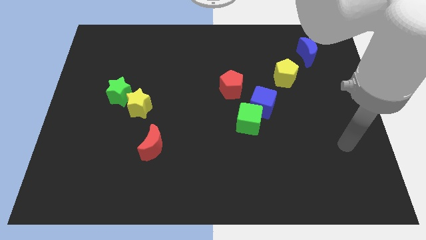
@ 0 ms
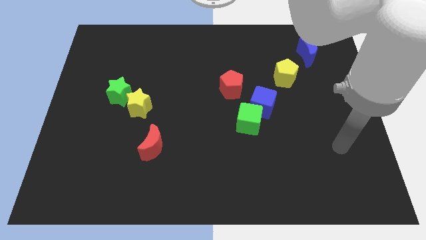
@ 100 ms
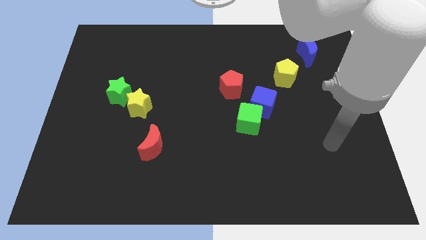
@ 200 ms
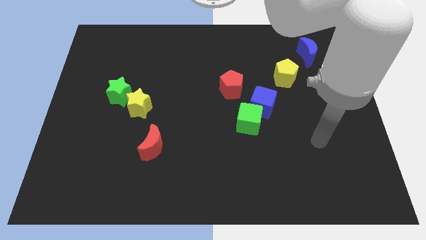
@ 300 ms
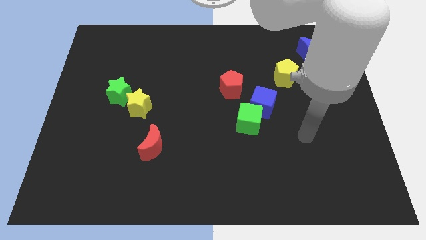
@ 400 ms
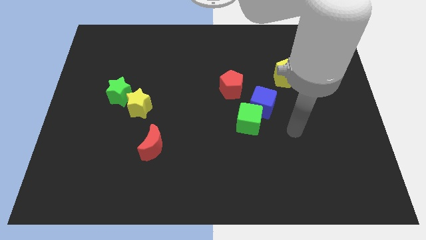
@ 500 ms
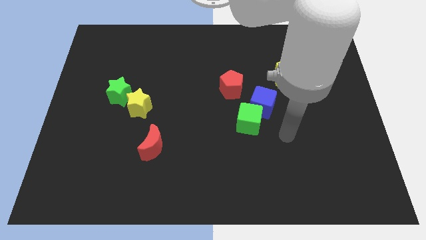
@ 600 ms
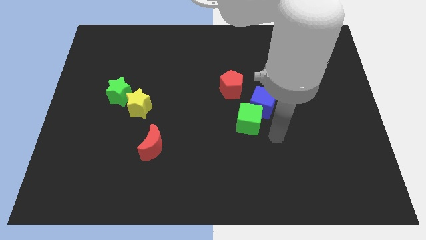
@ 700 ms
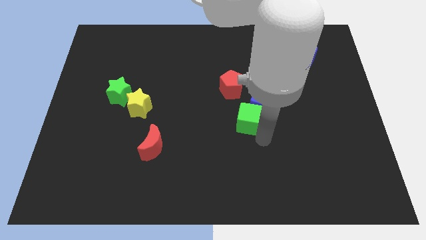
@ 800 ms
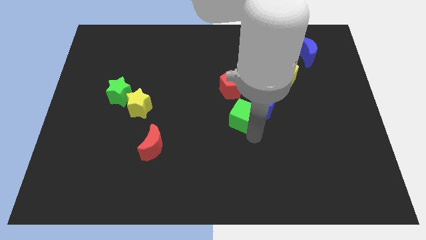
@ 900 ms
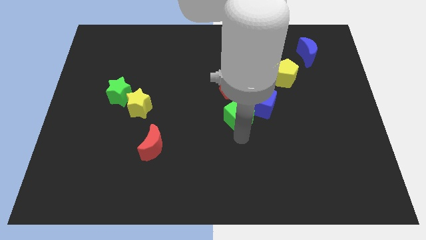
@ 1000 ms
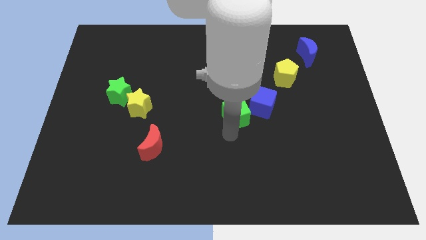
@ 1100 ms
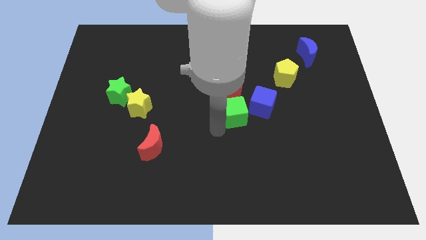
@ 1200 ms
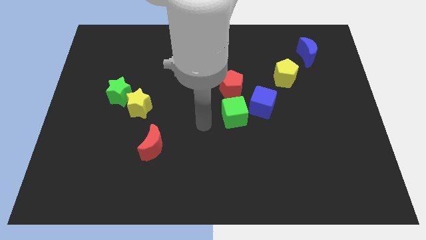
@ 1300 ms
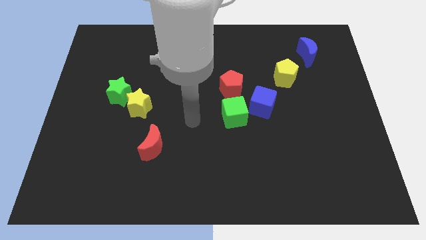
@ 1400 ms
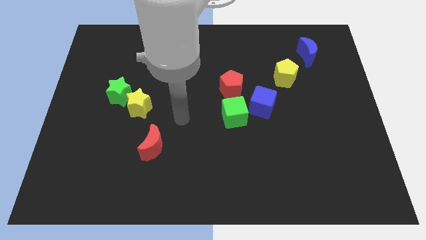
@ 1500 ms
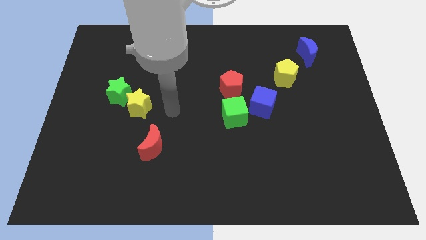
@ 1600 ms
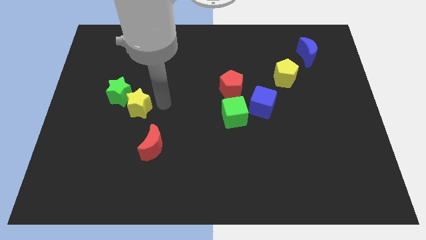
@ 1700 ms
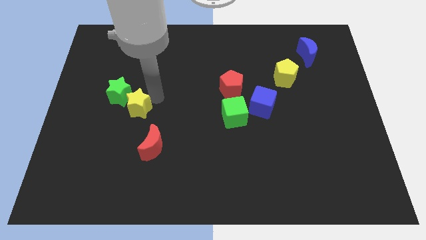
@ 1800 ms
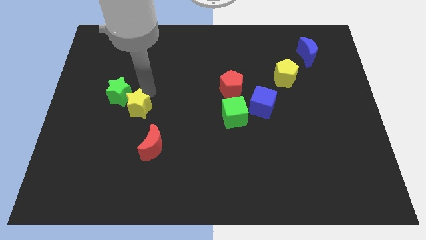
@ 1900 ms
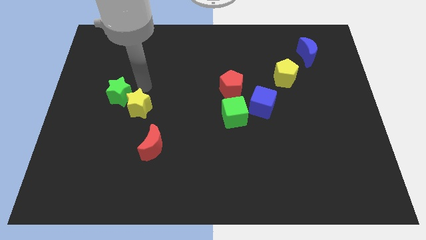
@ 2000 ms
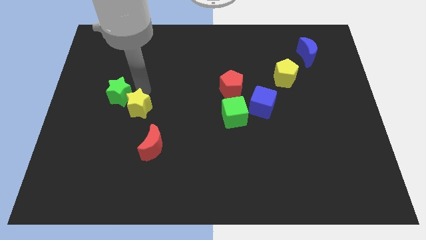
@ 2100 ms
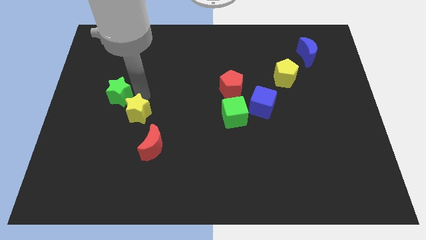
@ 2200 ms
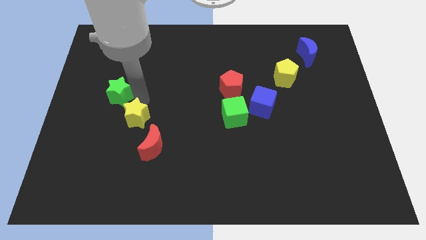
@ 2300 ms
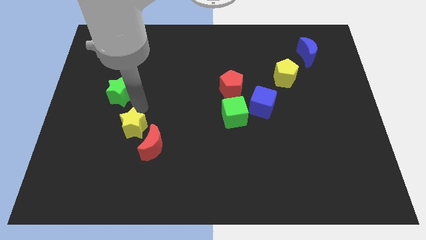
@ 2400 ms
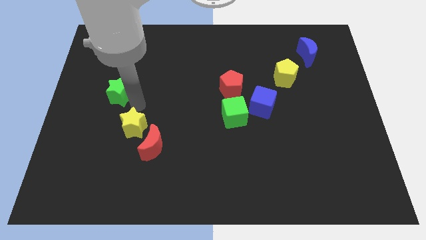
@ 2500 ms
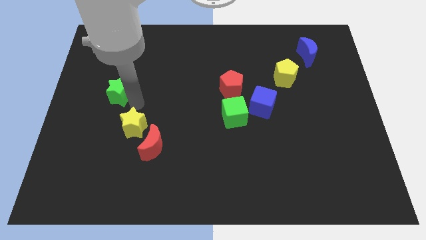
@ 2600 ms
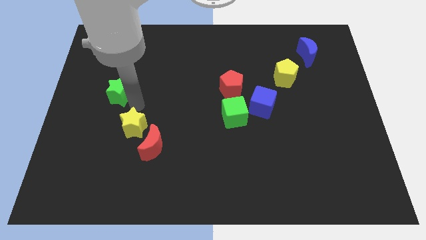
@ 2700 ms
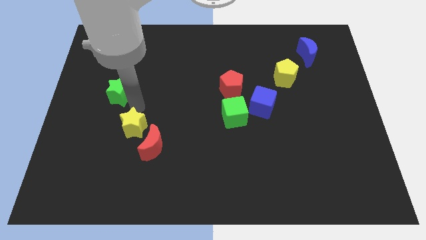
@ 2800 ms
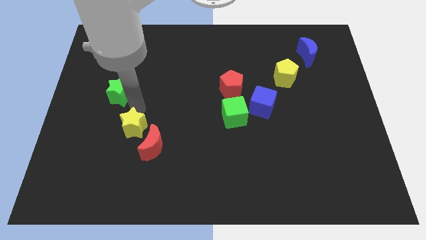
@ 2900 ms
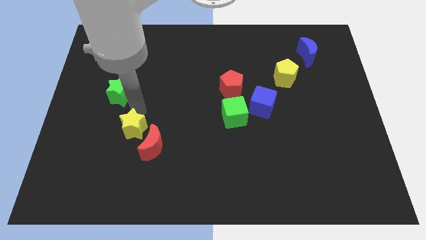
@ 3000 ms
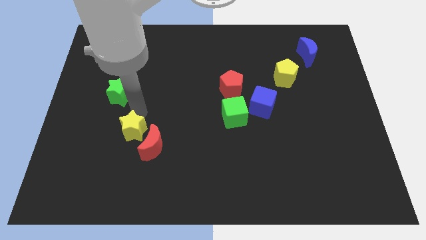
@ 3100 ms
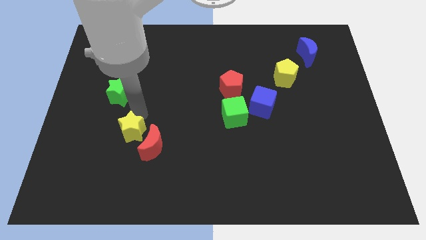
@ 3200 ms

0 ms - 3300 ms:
slide the yellow star downwards a little bit

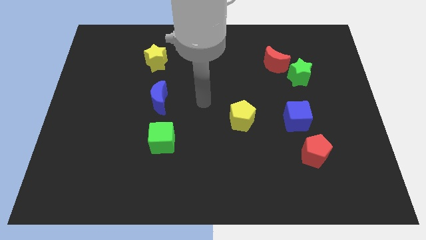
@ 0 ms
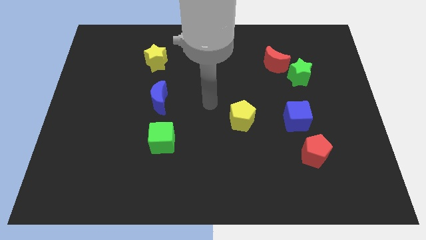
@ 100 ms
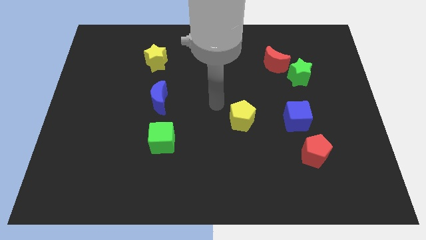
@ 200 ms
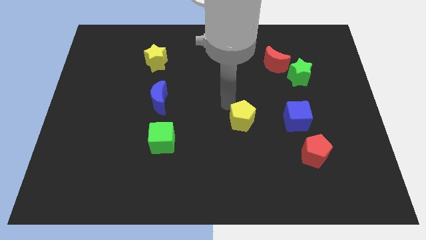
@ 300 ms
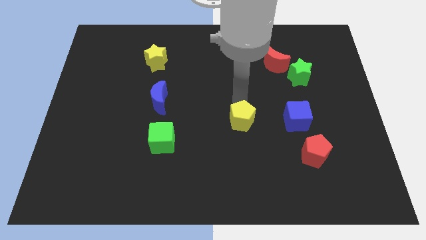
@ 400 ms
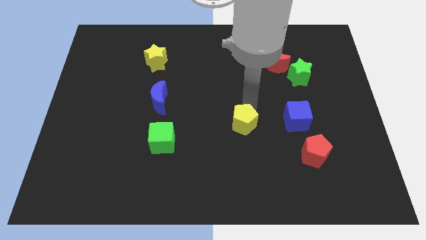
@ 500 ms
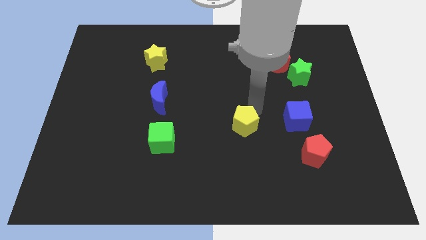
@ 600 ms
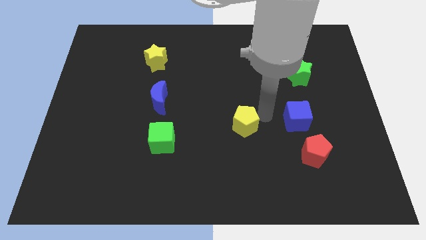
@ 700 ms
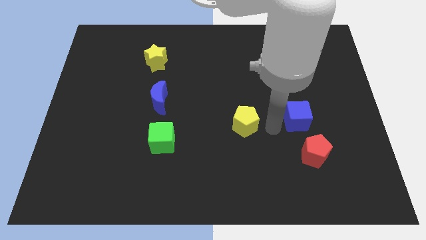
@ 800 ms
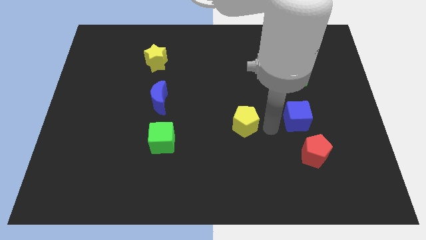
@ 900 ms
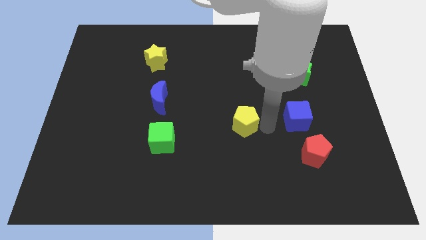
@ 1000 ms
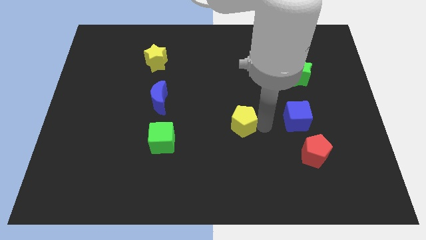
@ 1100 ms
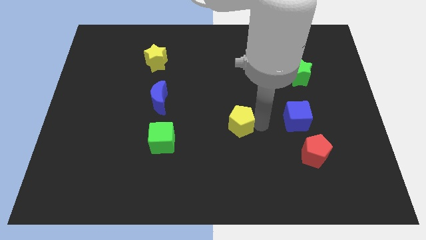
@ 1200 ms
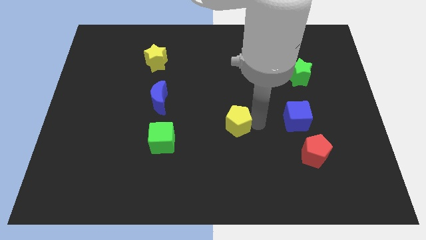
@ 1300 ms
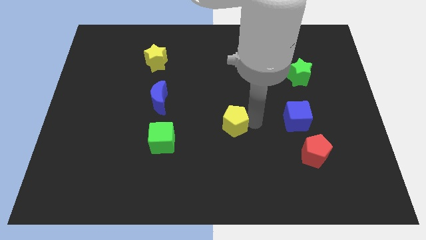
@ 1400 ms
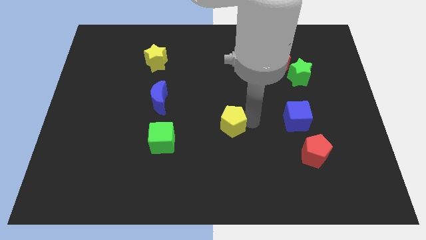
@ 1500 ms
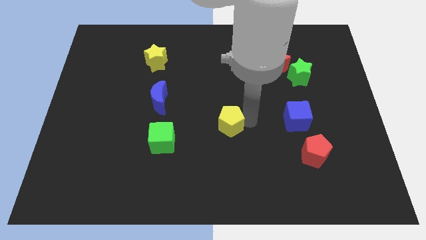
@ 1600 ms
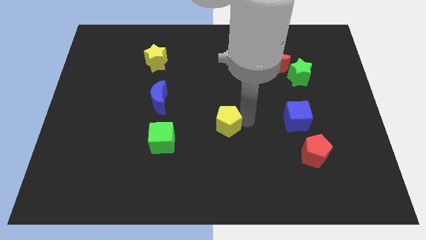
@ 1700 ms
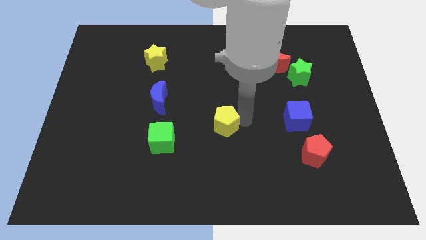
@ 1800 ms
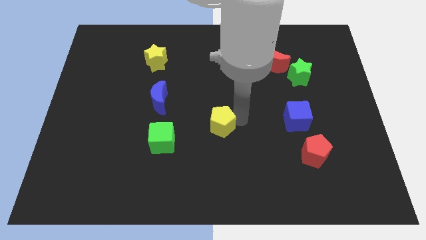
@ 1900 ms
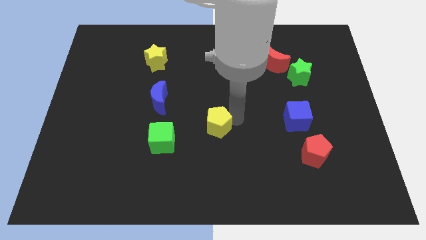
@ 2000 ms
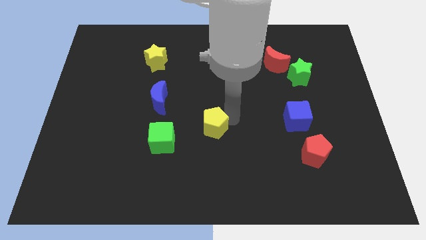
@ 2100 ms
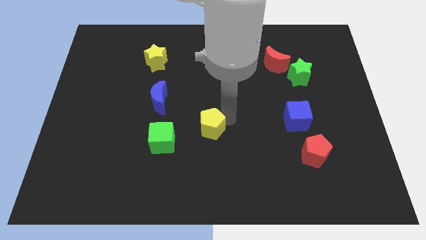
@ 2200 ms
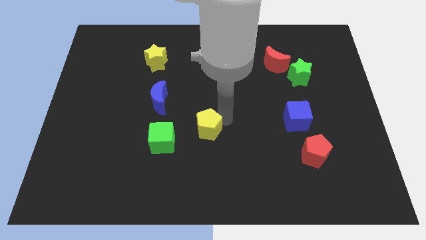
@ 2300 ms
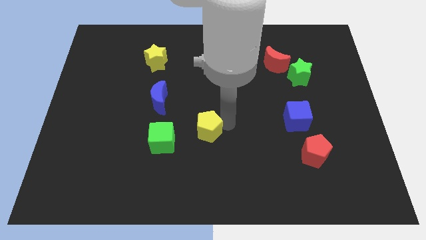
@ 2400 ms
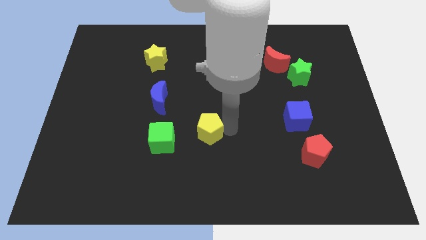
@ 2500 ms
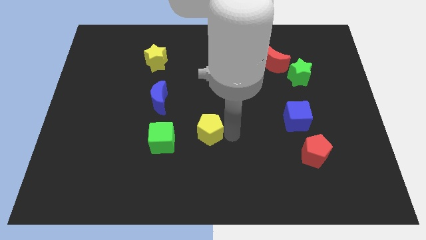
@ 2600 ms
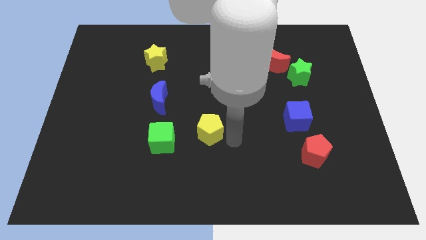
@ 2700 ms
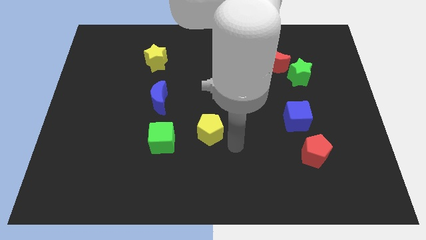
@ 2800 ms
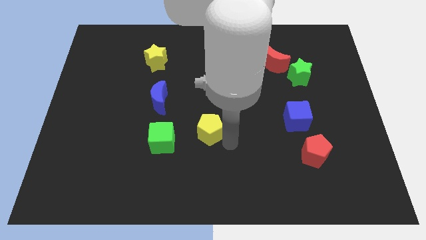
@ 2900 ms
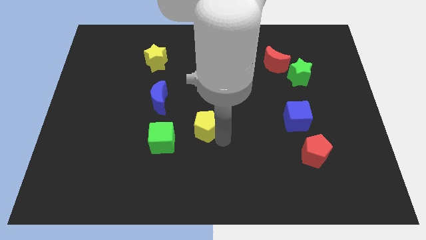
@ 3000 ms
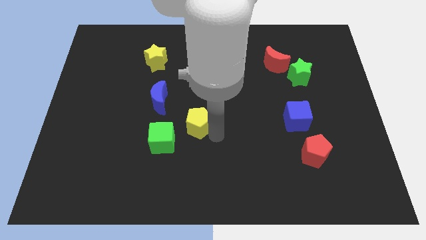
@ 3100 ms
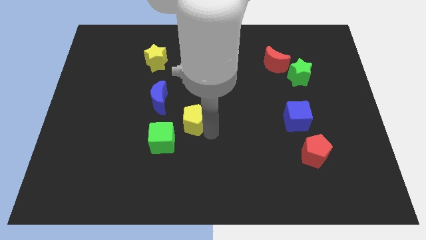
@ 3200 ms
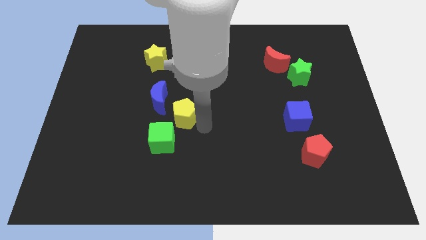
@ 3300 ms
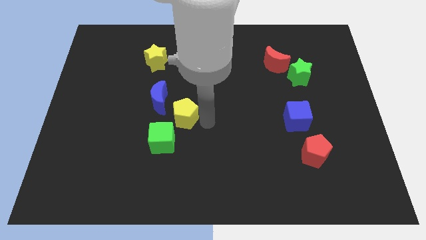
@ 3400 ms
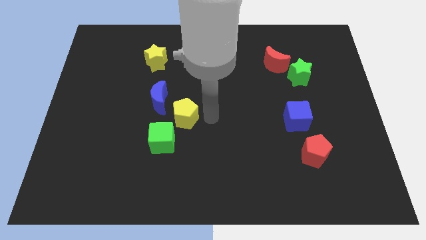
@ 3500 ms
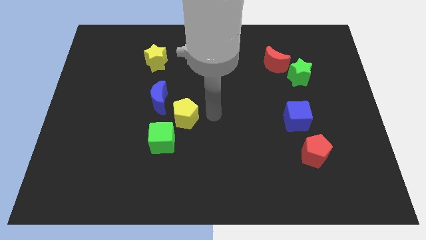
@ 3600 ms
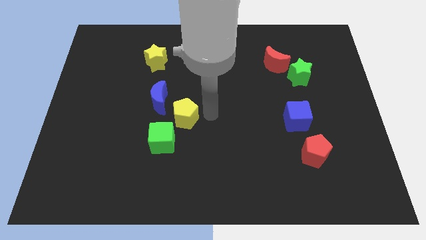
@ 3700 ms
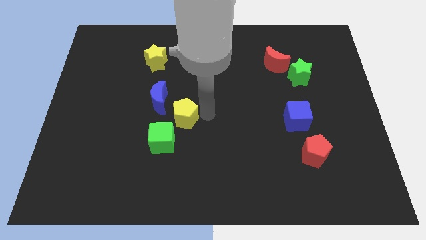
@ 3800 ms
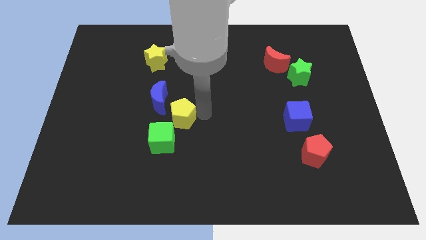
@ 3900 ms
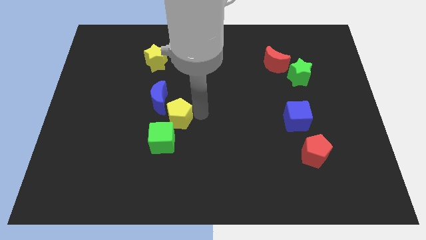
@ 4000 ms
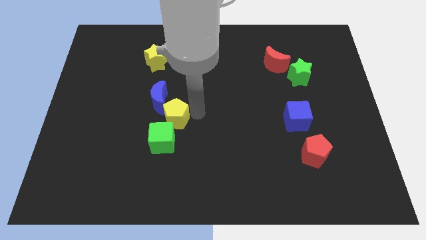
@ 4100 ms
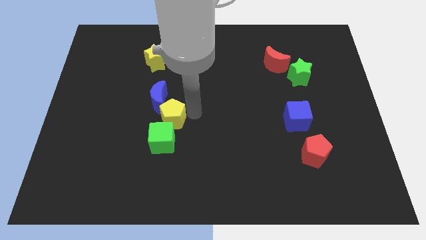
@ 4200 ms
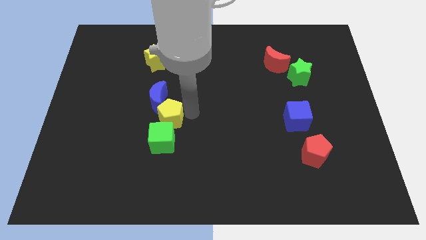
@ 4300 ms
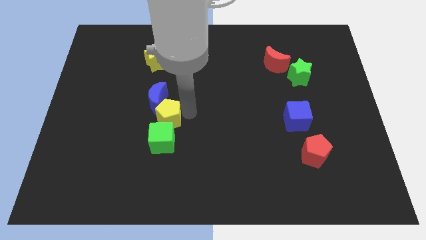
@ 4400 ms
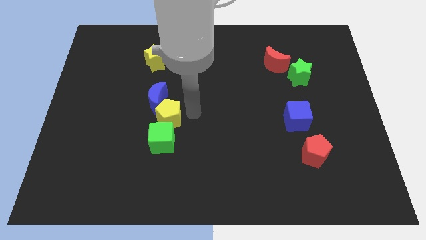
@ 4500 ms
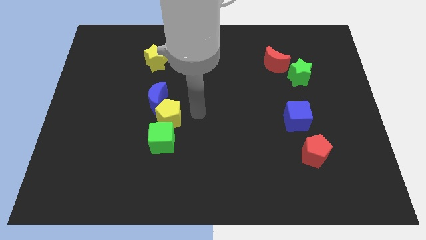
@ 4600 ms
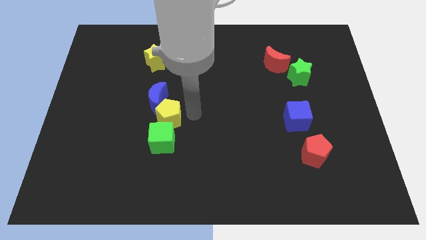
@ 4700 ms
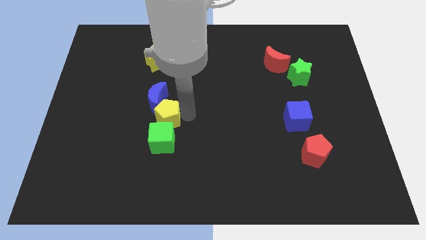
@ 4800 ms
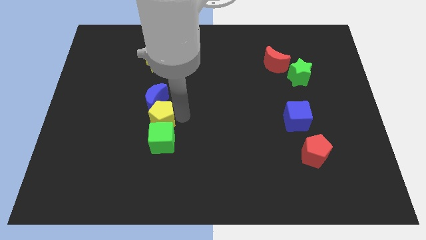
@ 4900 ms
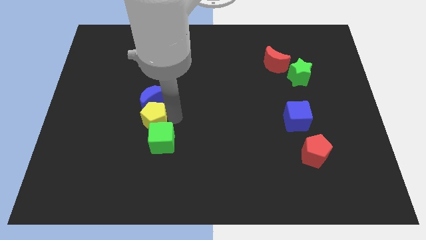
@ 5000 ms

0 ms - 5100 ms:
slide the yellow pentagon to the left
